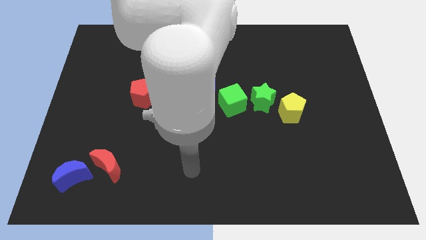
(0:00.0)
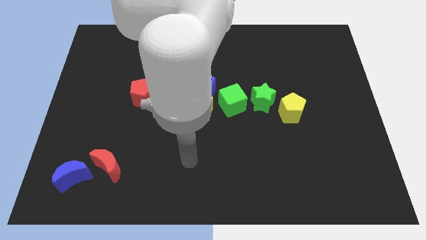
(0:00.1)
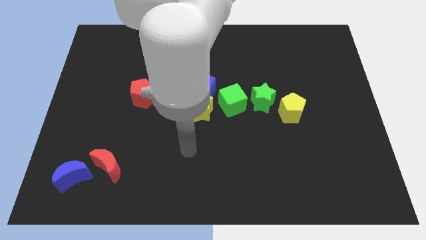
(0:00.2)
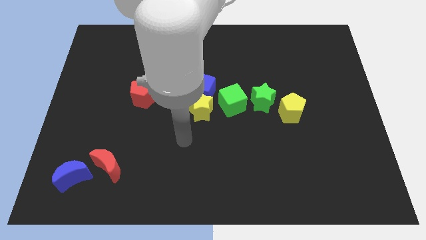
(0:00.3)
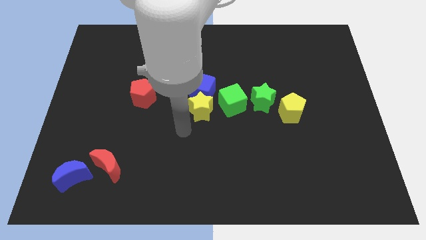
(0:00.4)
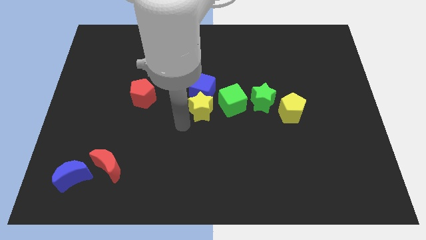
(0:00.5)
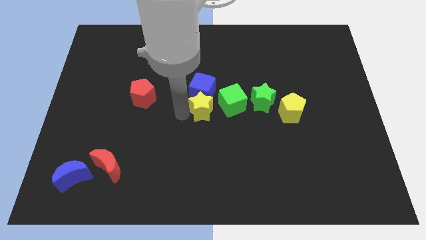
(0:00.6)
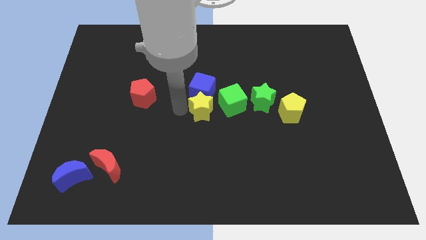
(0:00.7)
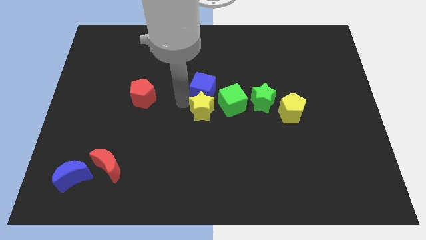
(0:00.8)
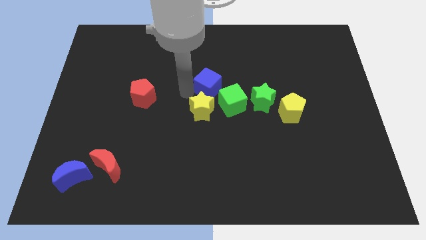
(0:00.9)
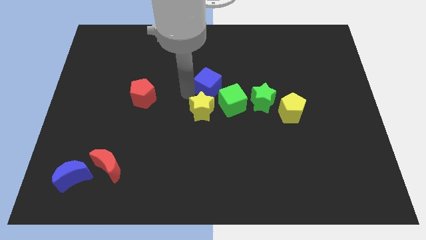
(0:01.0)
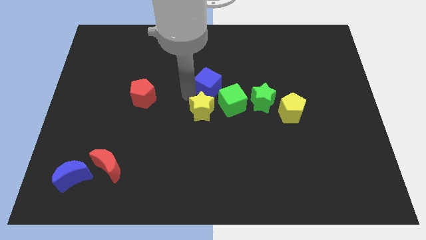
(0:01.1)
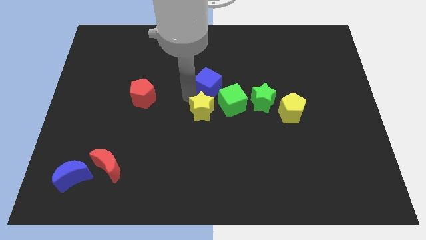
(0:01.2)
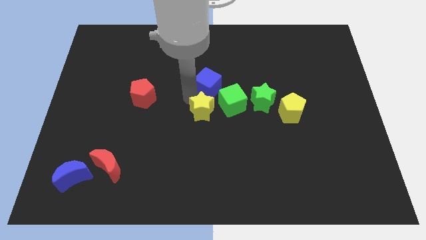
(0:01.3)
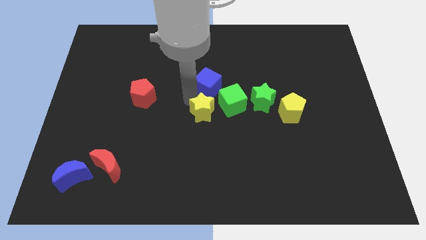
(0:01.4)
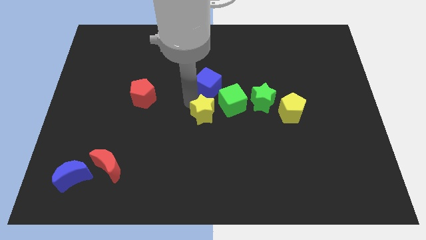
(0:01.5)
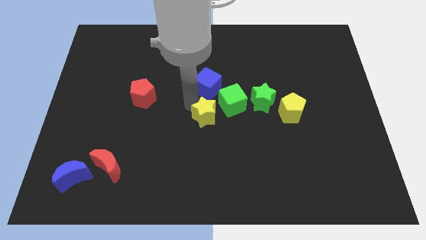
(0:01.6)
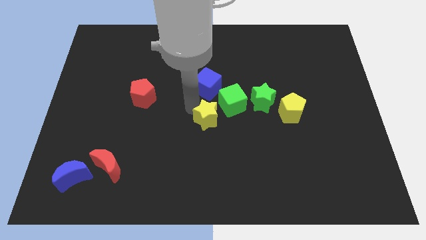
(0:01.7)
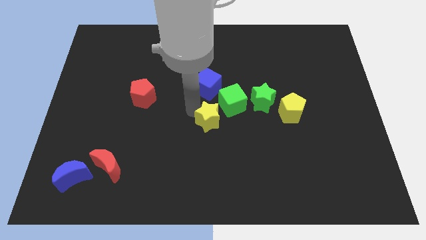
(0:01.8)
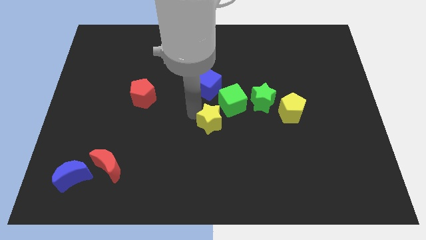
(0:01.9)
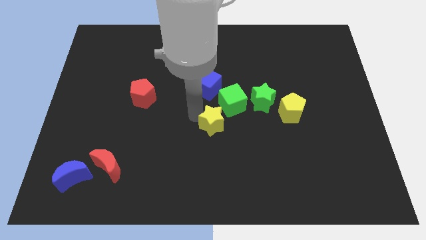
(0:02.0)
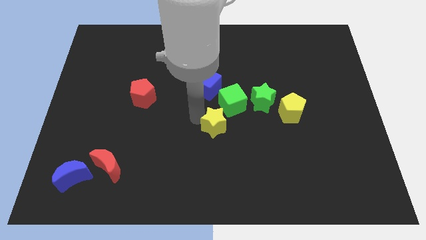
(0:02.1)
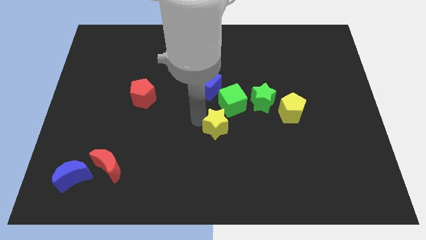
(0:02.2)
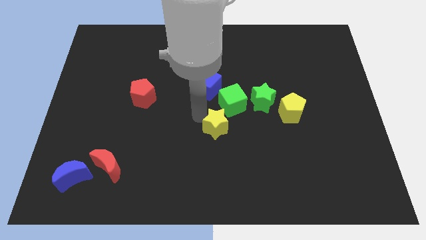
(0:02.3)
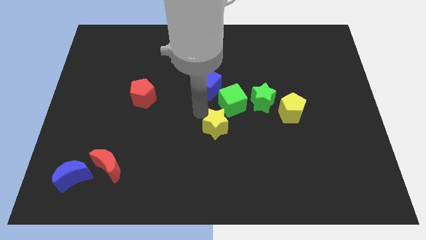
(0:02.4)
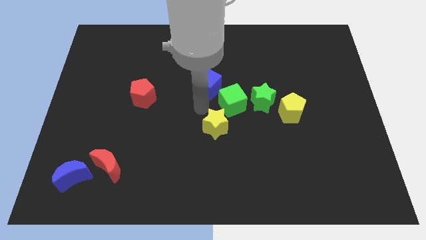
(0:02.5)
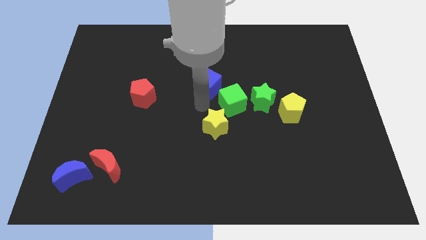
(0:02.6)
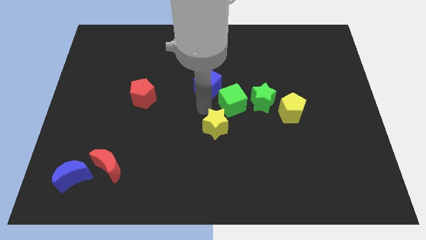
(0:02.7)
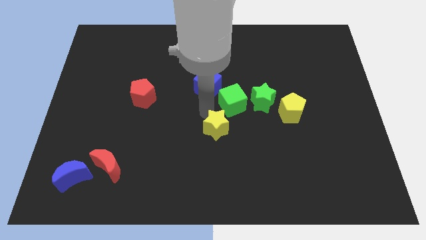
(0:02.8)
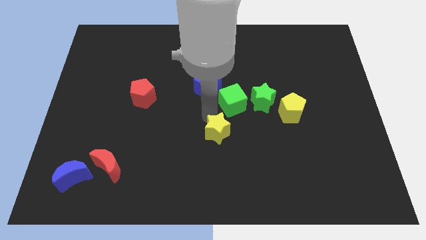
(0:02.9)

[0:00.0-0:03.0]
slide the yellow star downwards and to the right a little

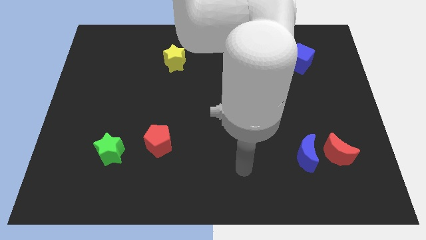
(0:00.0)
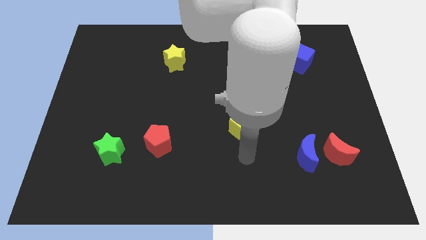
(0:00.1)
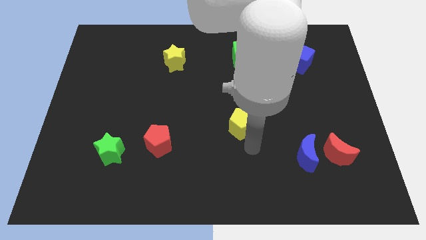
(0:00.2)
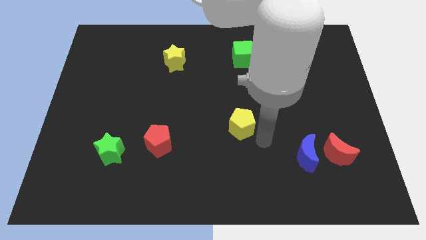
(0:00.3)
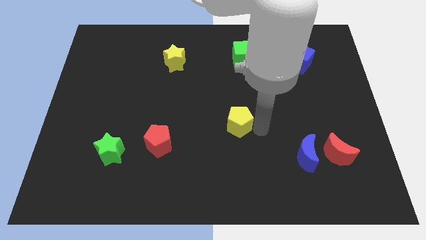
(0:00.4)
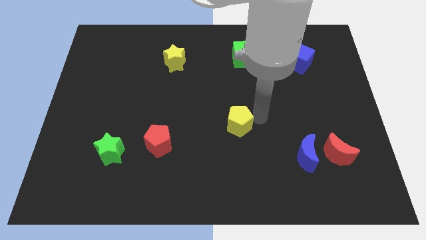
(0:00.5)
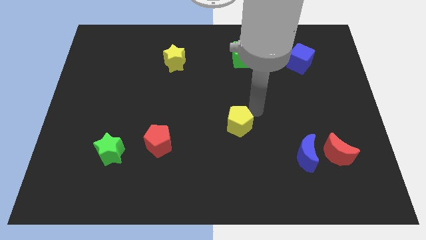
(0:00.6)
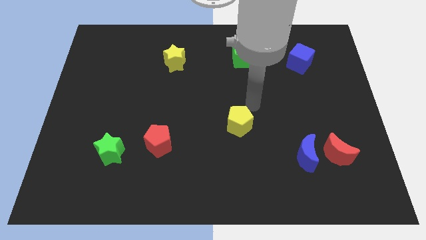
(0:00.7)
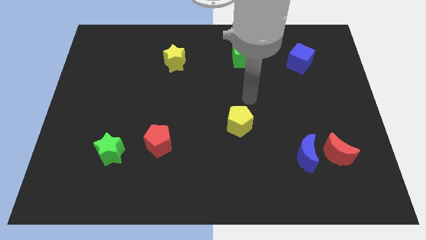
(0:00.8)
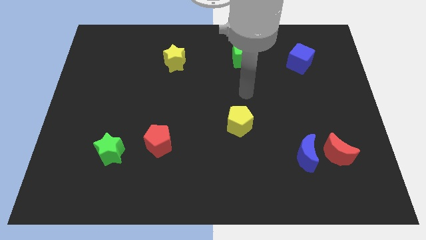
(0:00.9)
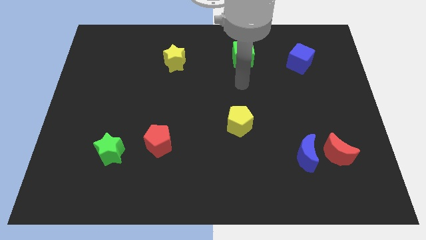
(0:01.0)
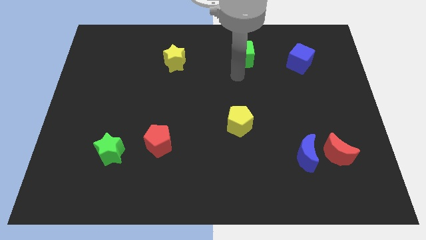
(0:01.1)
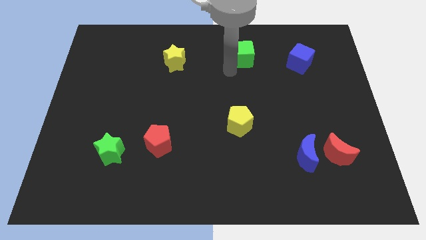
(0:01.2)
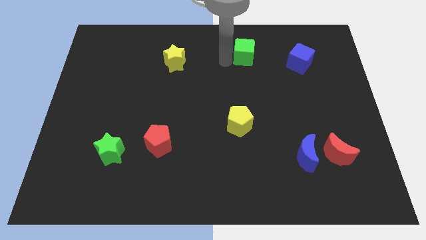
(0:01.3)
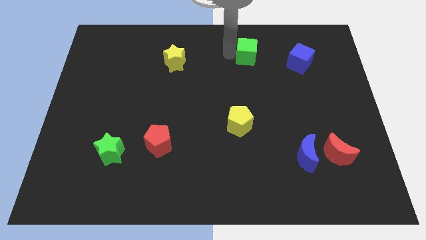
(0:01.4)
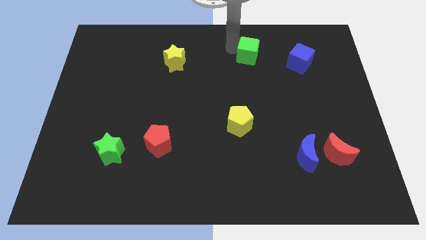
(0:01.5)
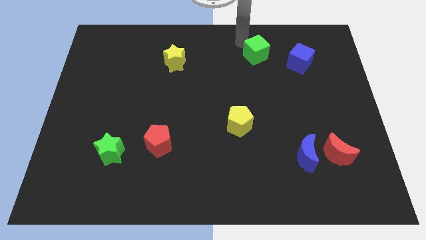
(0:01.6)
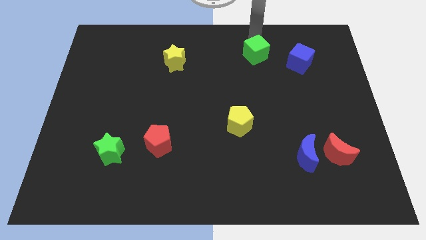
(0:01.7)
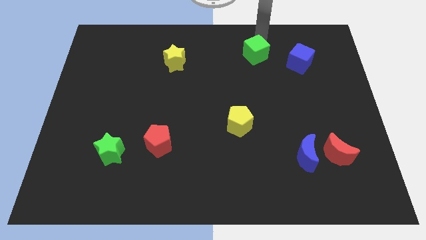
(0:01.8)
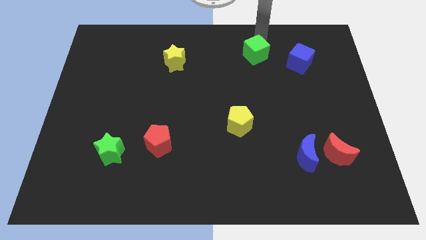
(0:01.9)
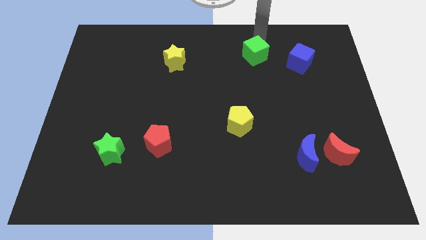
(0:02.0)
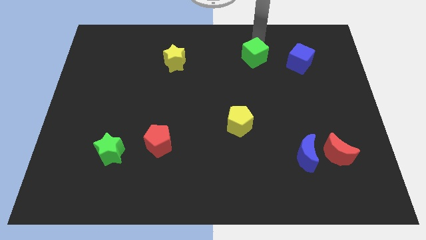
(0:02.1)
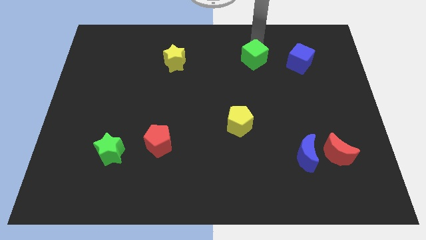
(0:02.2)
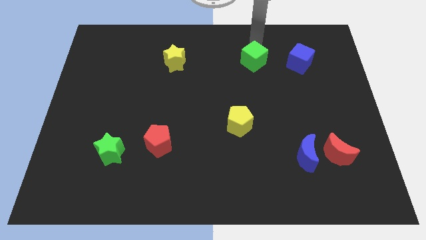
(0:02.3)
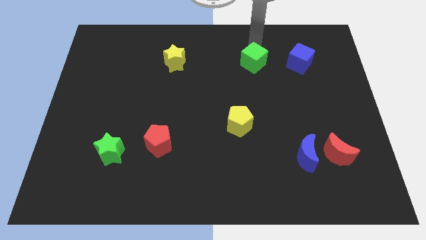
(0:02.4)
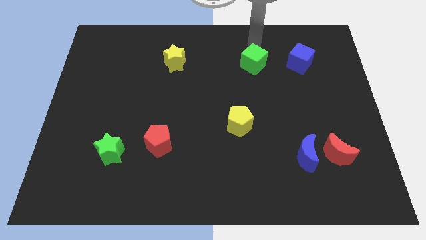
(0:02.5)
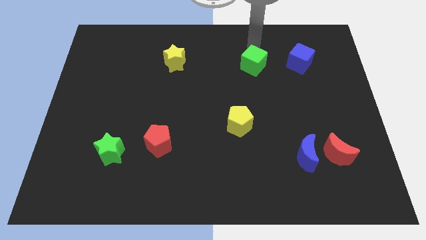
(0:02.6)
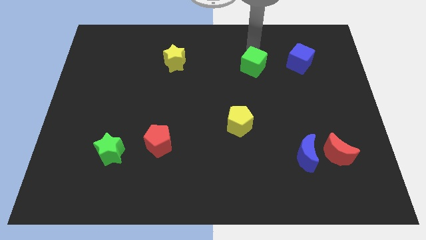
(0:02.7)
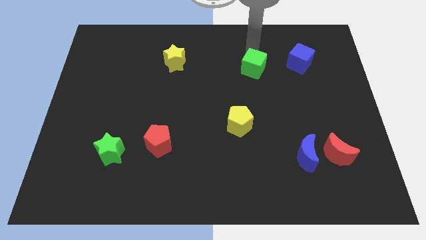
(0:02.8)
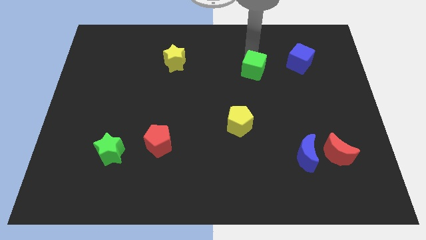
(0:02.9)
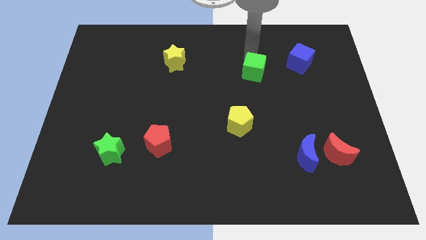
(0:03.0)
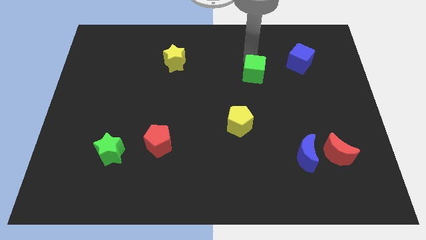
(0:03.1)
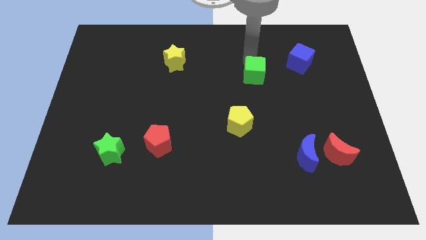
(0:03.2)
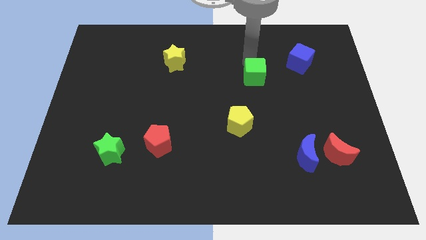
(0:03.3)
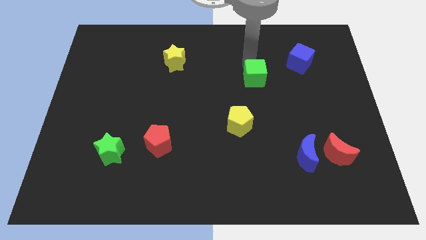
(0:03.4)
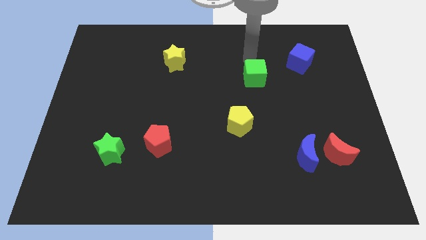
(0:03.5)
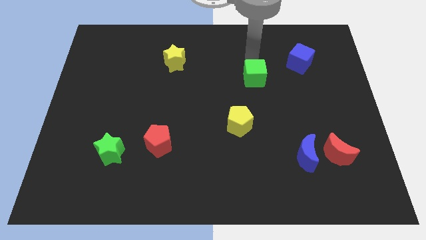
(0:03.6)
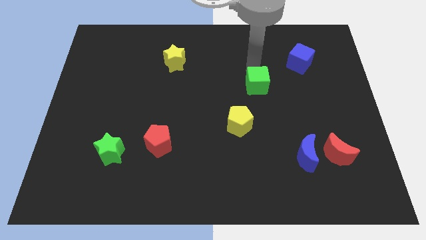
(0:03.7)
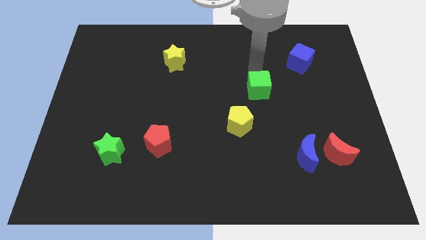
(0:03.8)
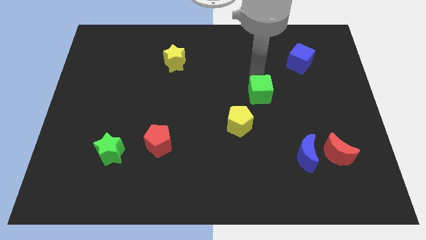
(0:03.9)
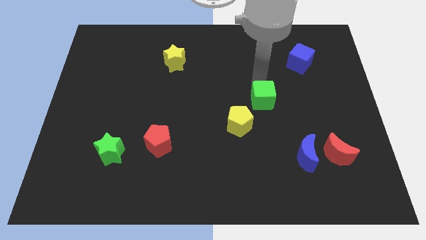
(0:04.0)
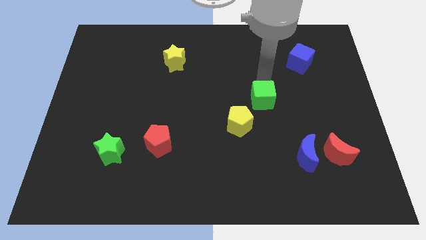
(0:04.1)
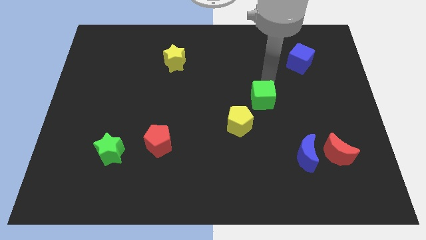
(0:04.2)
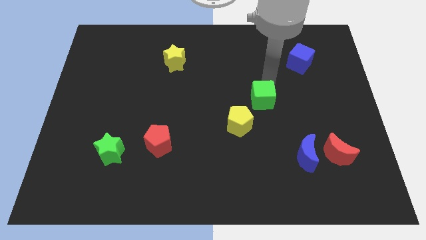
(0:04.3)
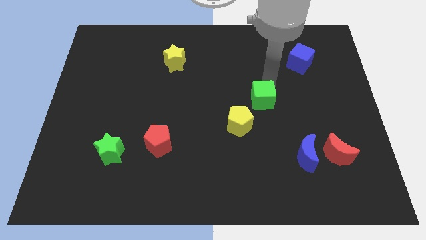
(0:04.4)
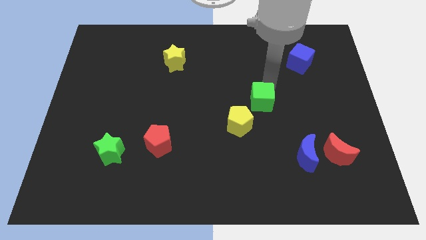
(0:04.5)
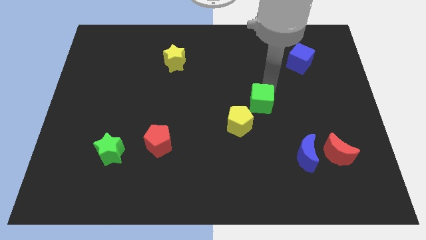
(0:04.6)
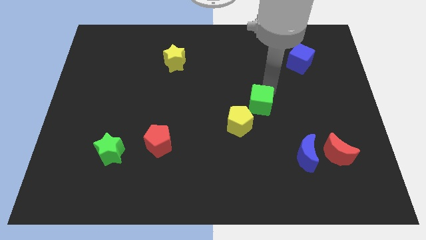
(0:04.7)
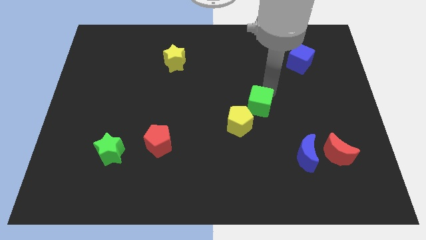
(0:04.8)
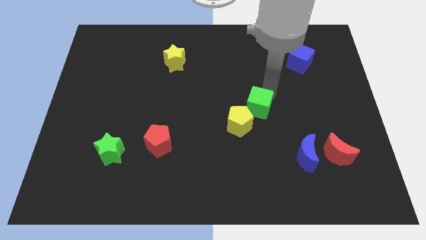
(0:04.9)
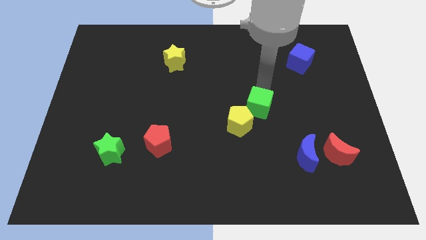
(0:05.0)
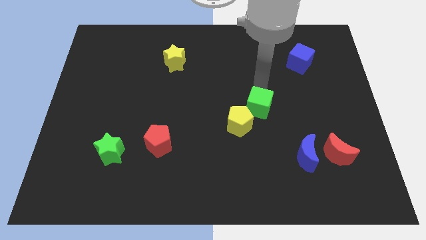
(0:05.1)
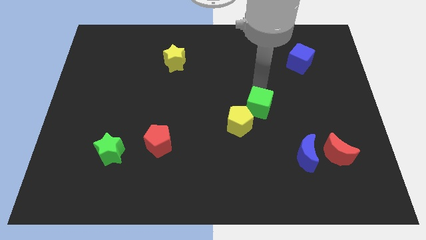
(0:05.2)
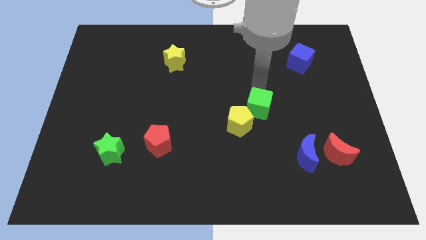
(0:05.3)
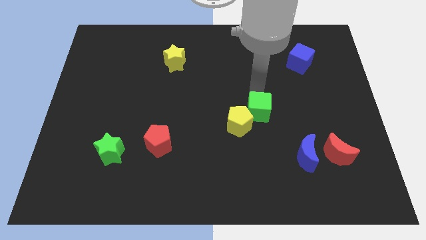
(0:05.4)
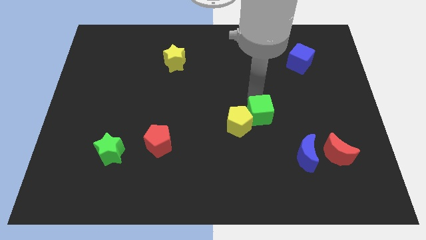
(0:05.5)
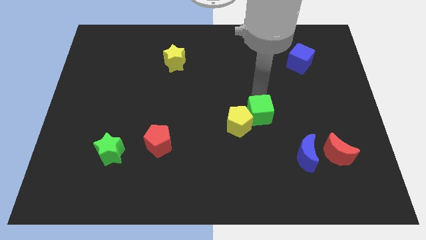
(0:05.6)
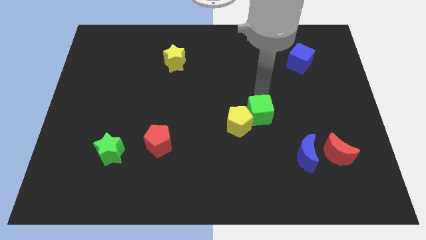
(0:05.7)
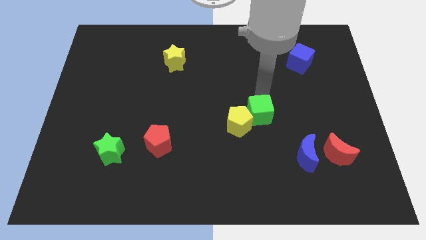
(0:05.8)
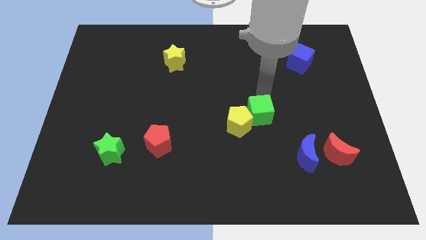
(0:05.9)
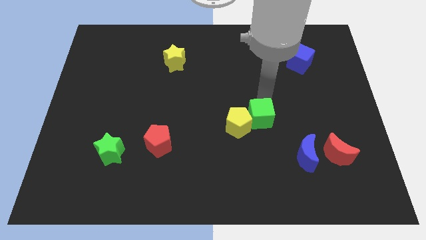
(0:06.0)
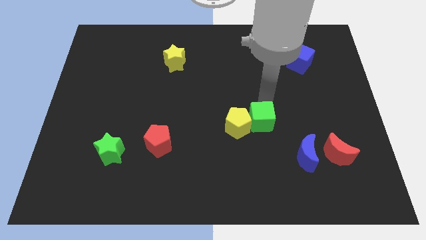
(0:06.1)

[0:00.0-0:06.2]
slide the green cube down
